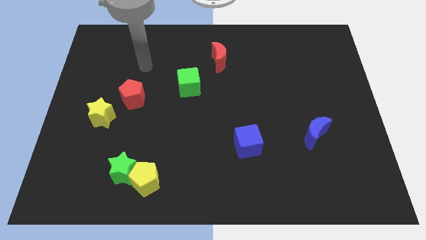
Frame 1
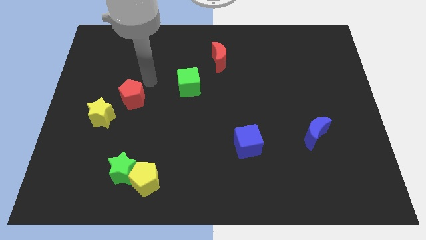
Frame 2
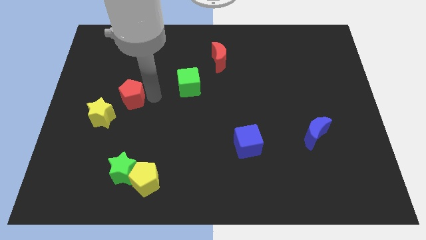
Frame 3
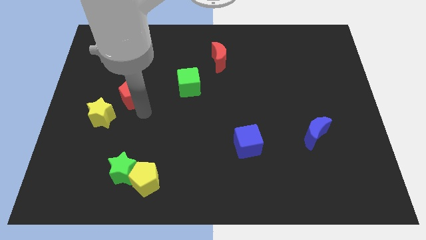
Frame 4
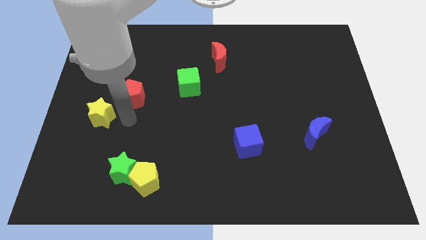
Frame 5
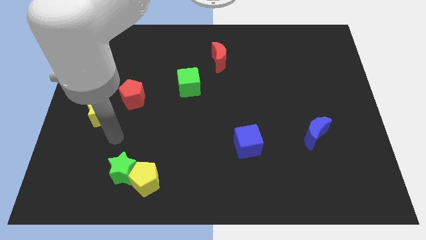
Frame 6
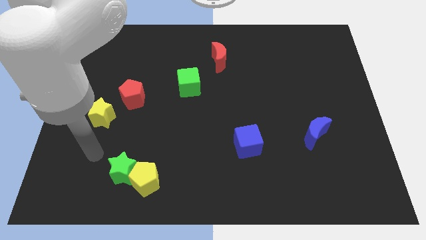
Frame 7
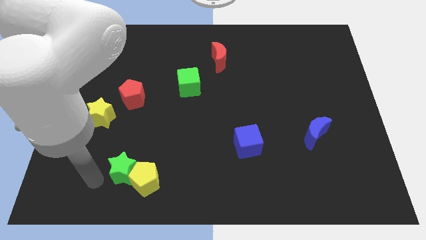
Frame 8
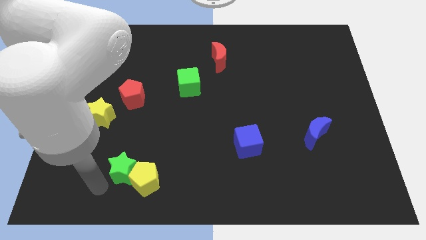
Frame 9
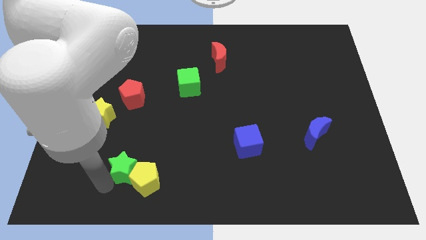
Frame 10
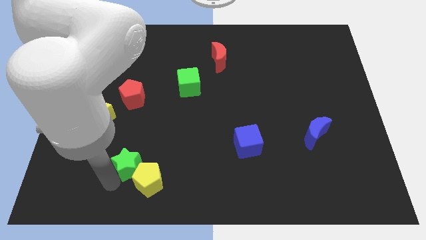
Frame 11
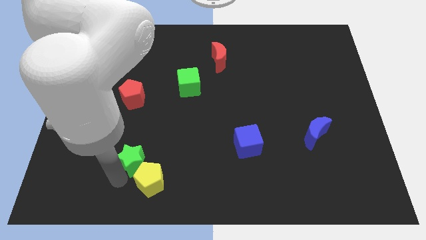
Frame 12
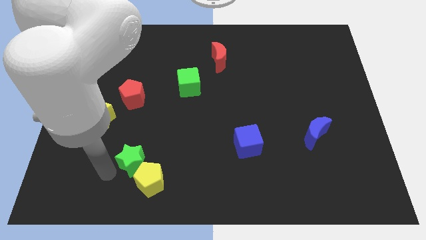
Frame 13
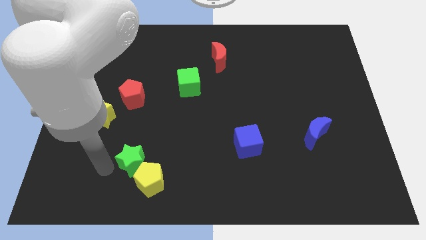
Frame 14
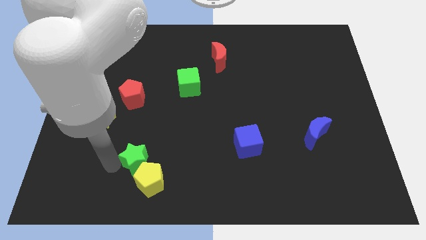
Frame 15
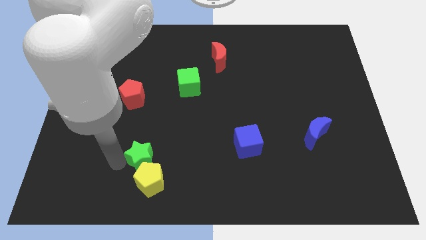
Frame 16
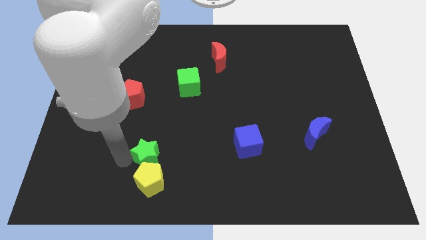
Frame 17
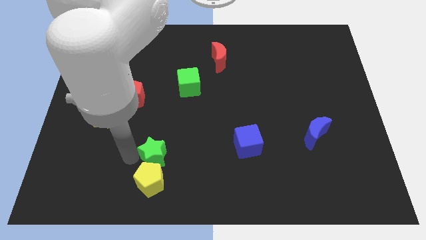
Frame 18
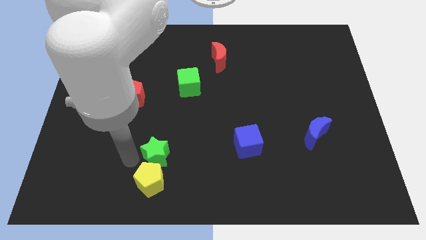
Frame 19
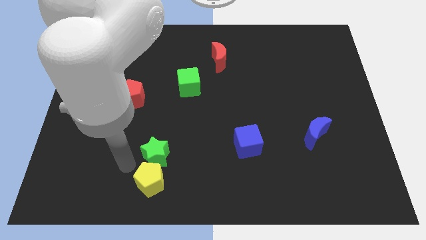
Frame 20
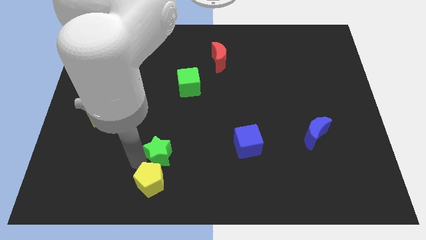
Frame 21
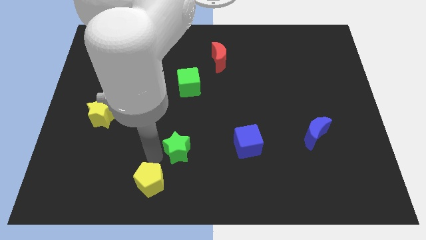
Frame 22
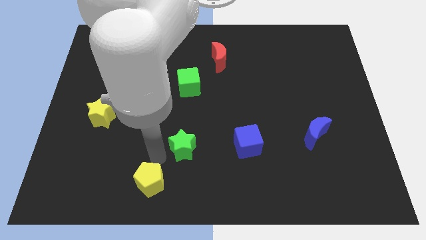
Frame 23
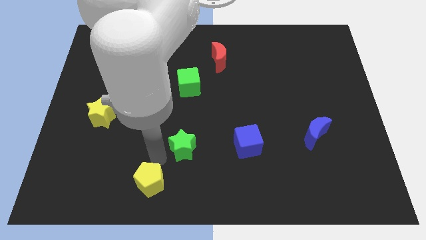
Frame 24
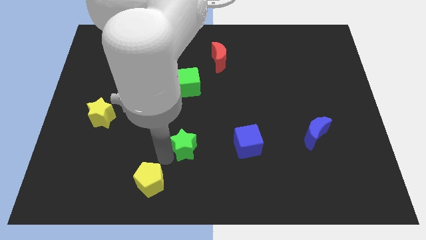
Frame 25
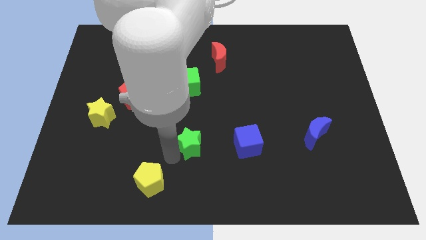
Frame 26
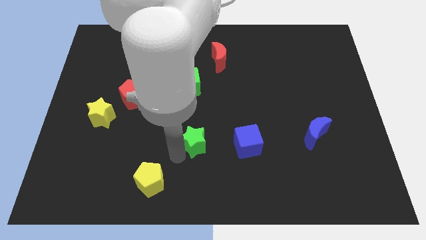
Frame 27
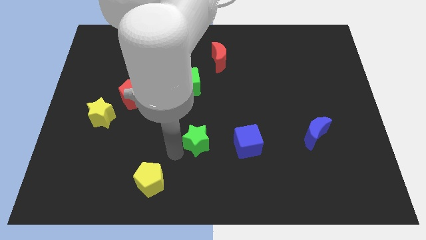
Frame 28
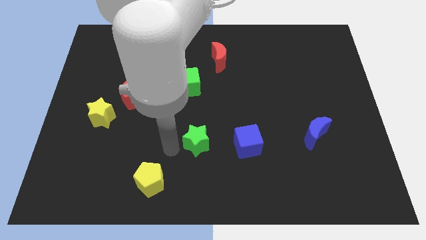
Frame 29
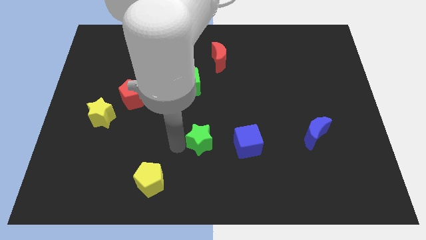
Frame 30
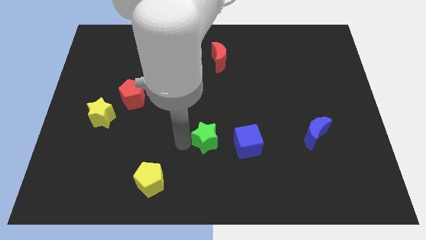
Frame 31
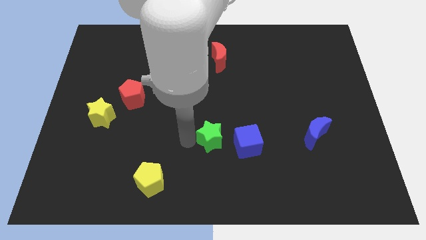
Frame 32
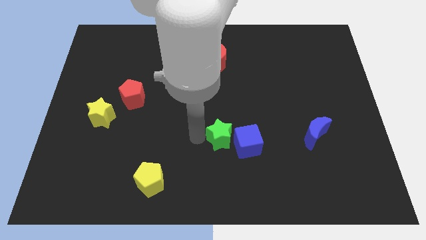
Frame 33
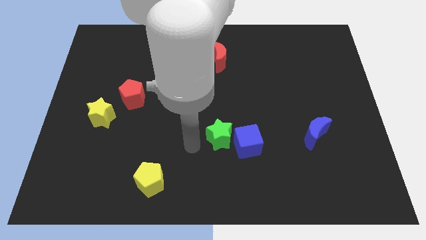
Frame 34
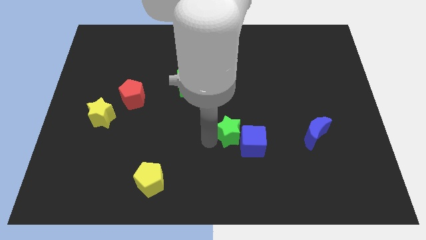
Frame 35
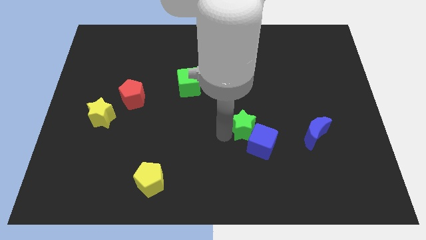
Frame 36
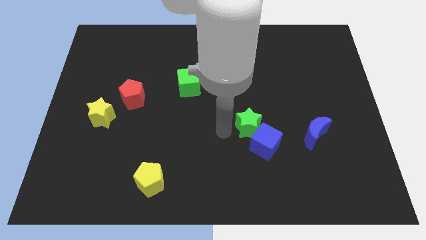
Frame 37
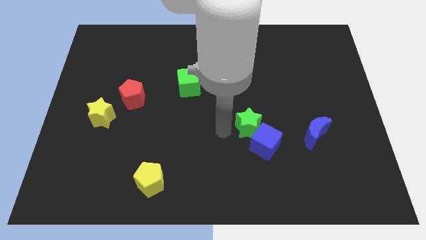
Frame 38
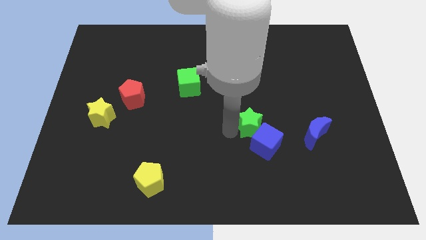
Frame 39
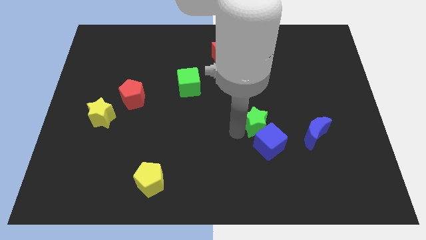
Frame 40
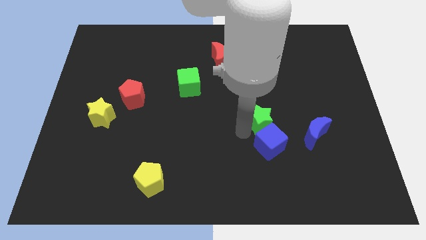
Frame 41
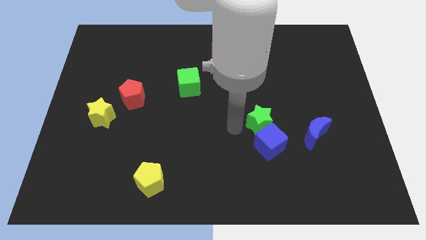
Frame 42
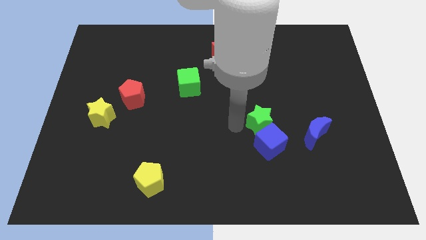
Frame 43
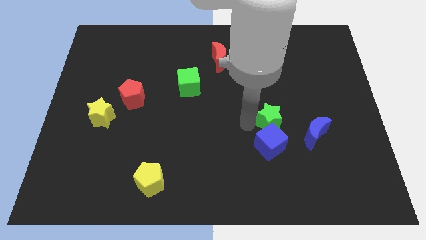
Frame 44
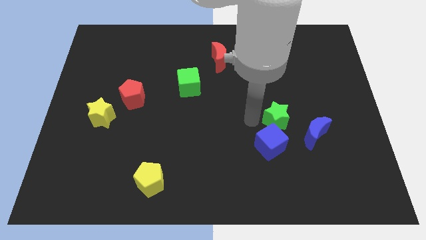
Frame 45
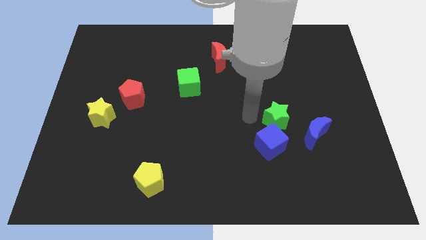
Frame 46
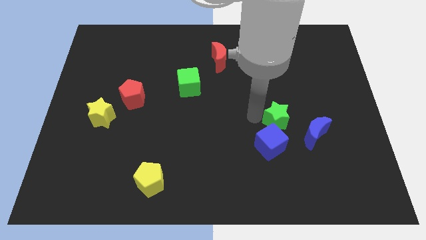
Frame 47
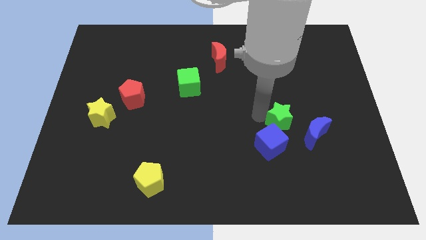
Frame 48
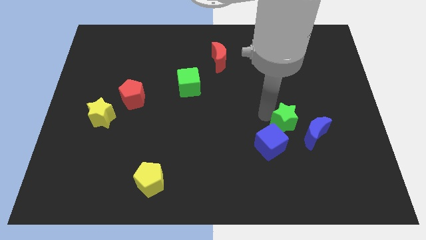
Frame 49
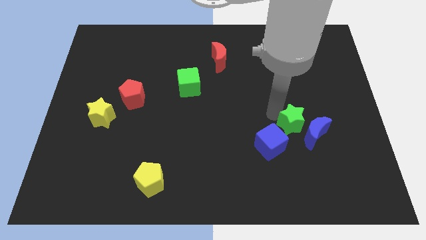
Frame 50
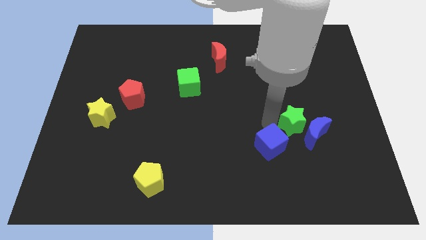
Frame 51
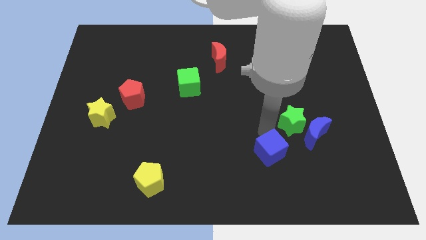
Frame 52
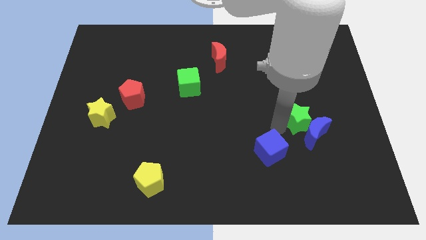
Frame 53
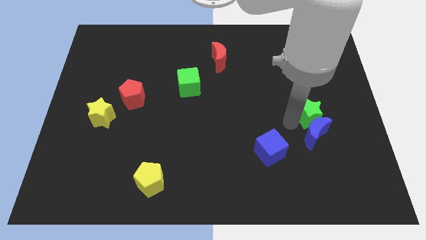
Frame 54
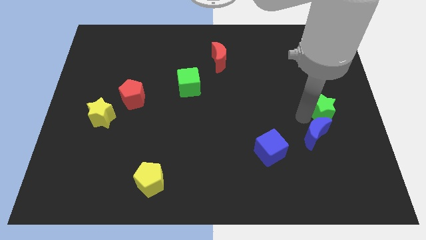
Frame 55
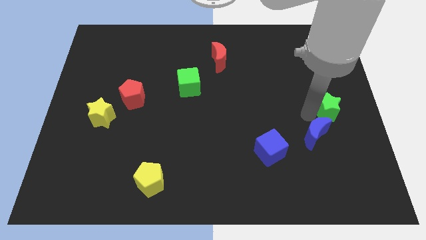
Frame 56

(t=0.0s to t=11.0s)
push the green star to the right side

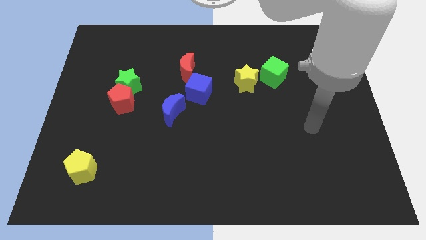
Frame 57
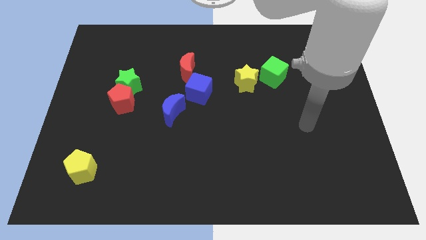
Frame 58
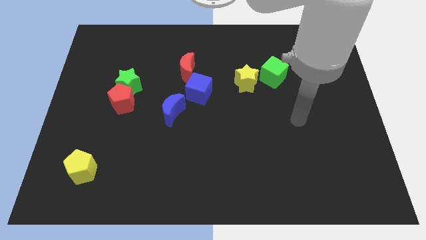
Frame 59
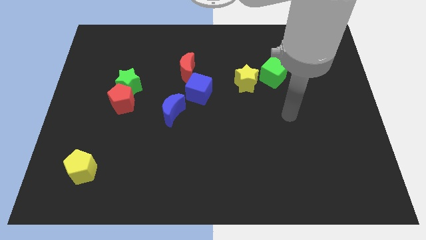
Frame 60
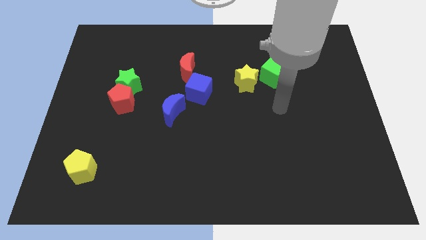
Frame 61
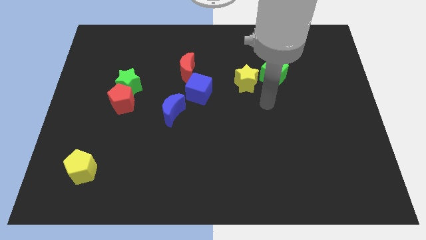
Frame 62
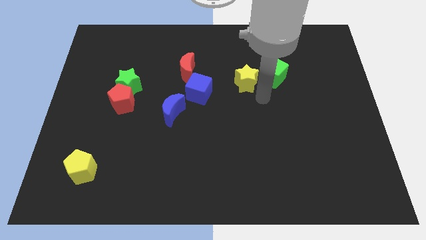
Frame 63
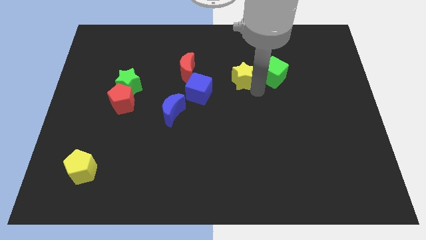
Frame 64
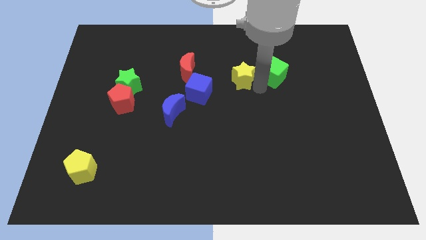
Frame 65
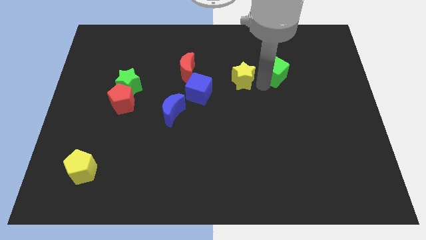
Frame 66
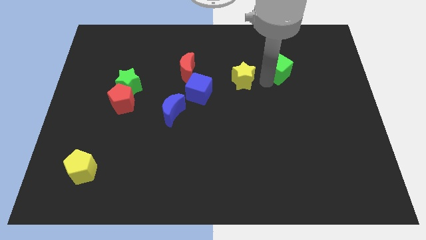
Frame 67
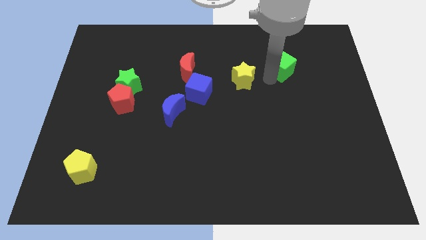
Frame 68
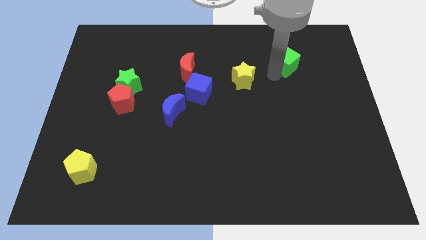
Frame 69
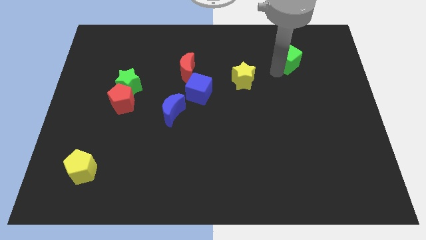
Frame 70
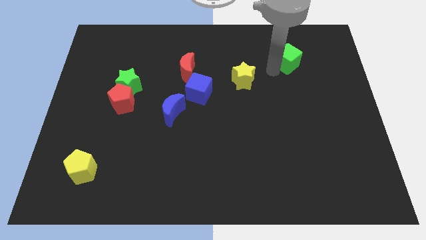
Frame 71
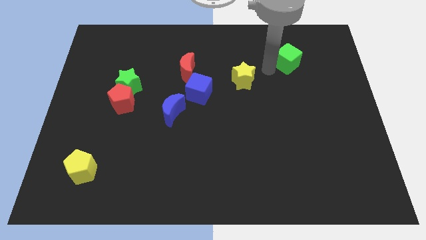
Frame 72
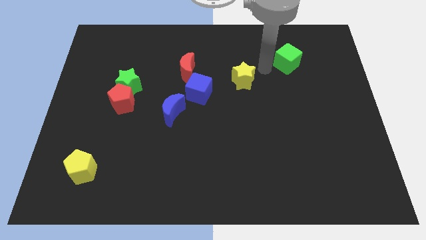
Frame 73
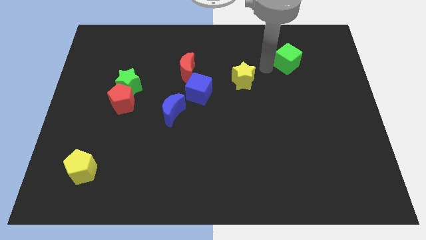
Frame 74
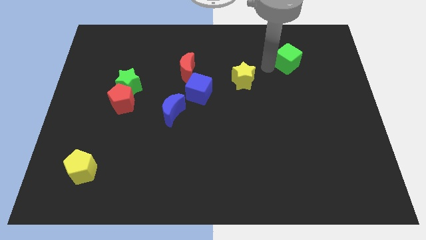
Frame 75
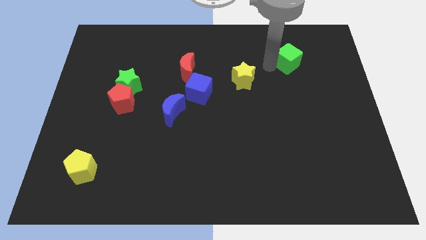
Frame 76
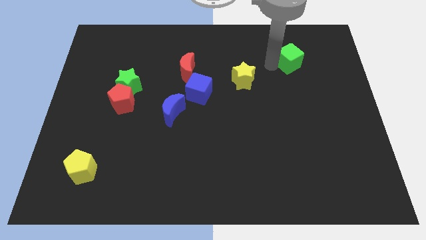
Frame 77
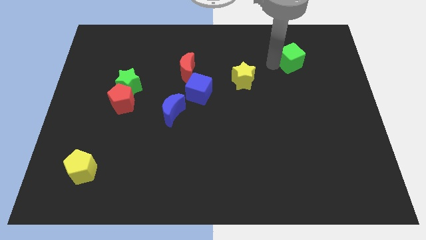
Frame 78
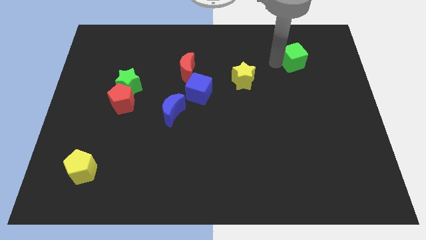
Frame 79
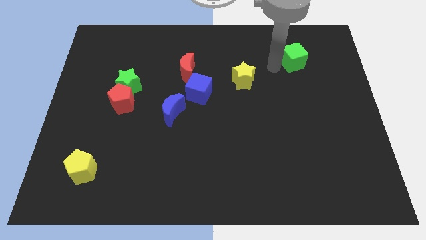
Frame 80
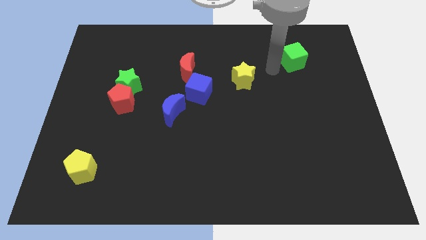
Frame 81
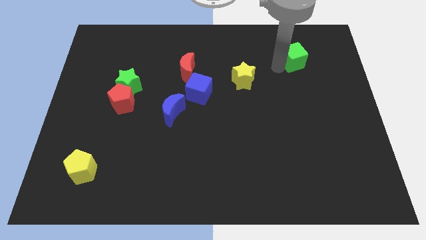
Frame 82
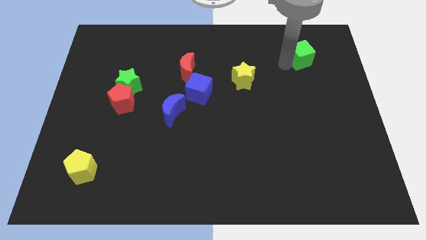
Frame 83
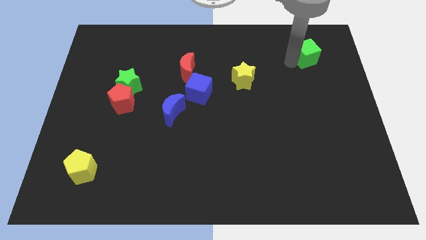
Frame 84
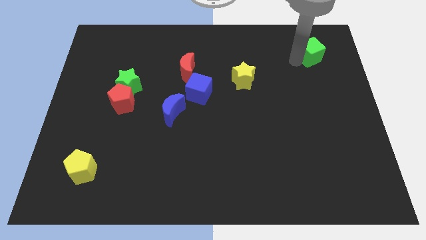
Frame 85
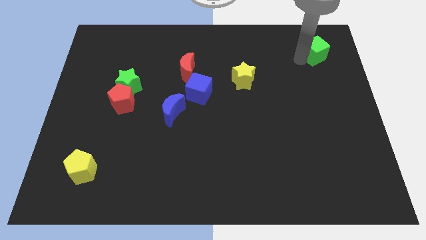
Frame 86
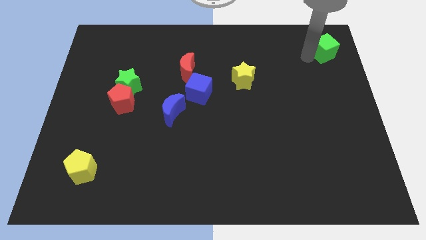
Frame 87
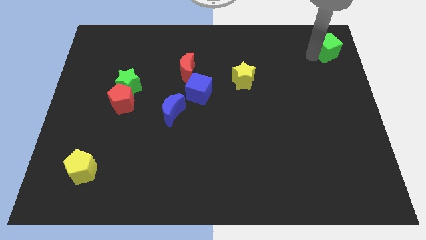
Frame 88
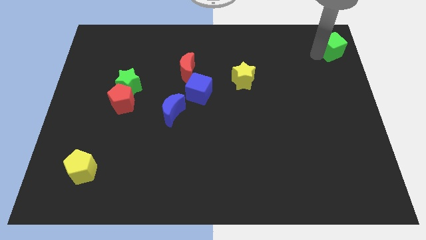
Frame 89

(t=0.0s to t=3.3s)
move the green cube to the top right corner
